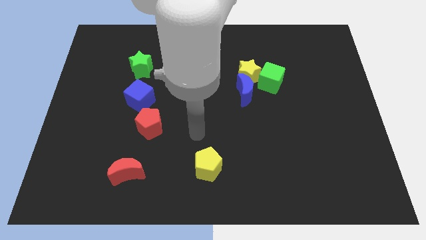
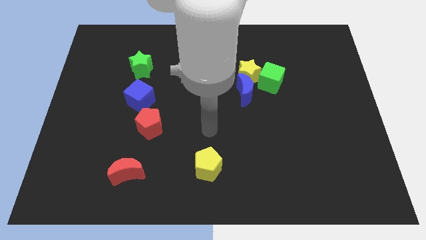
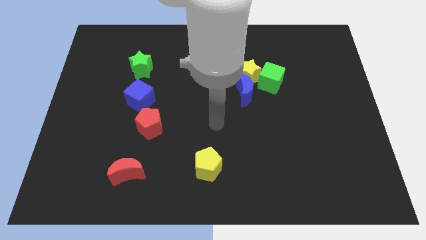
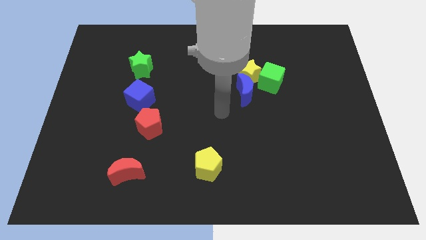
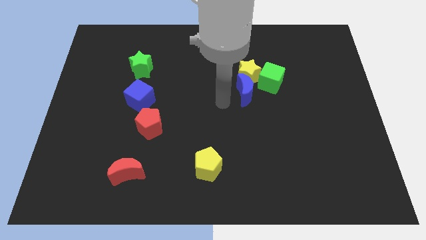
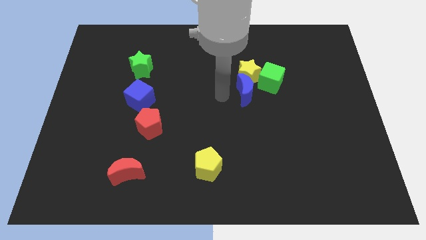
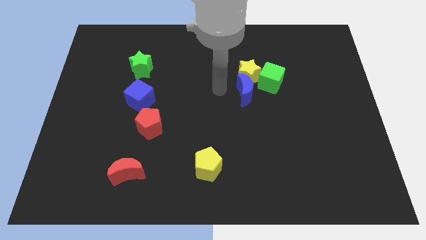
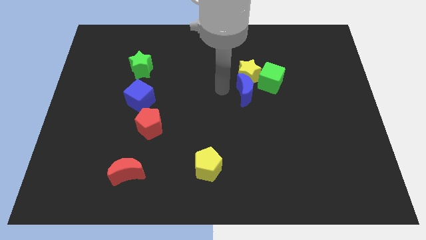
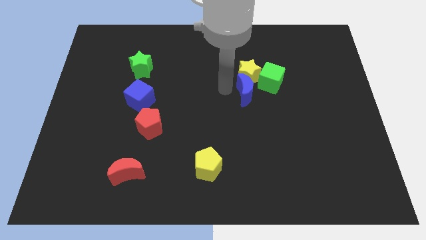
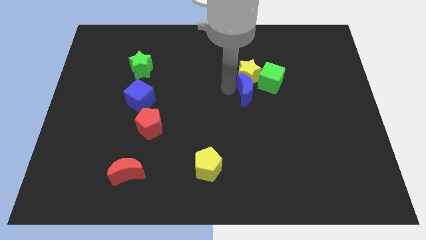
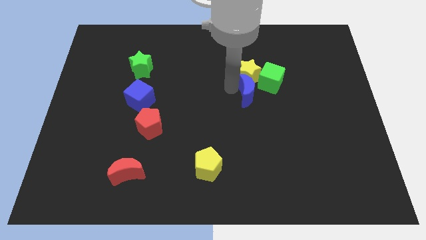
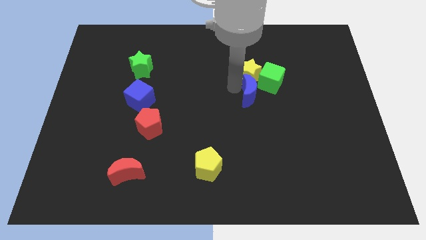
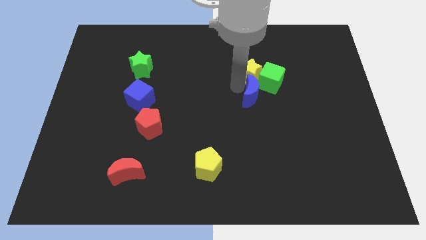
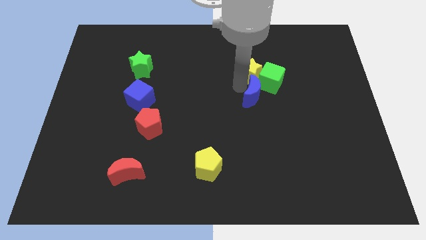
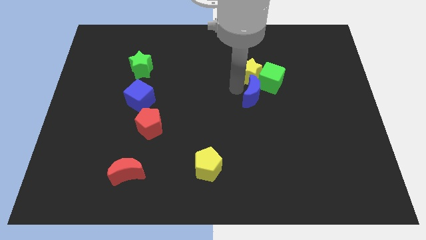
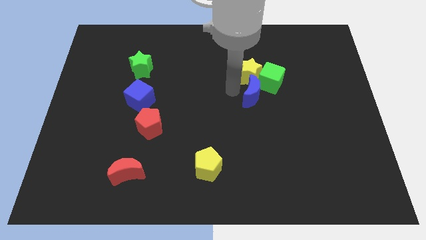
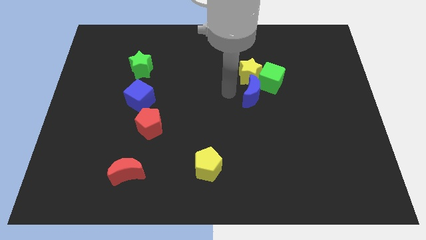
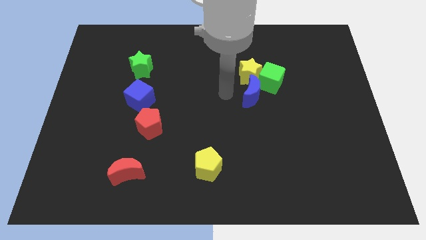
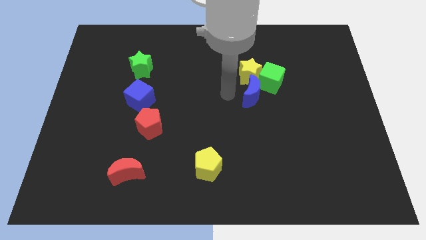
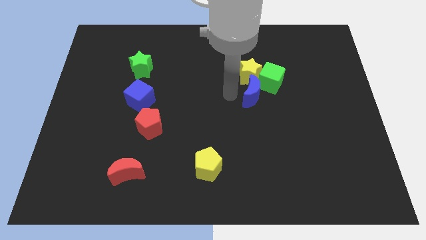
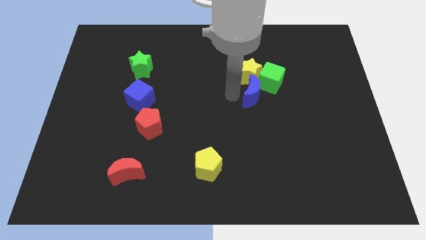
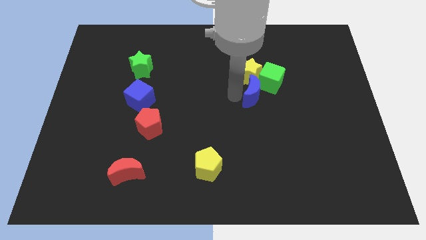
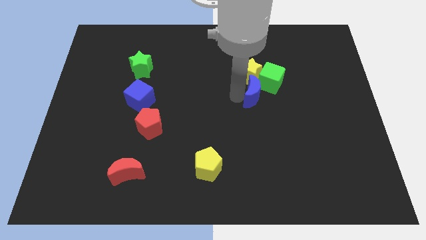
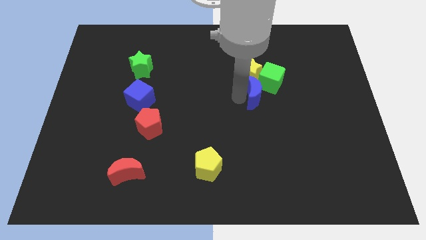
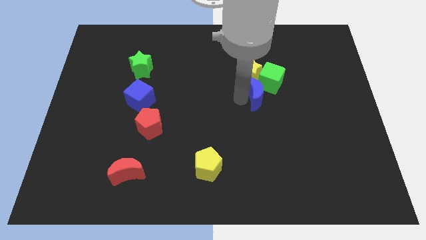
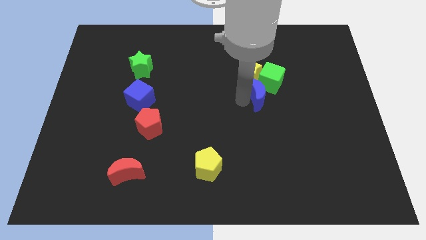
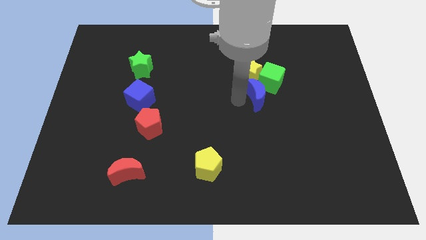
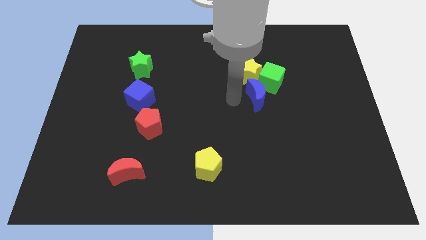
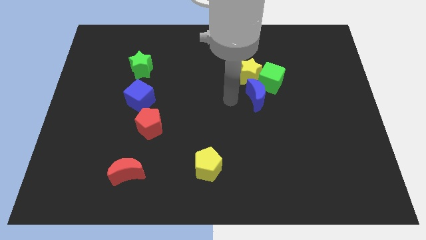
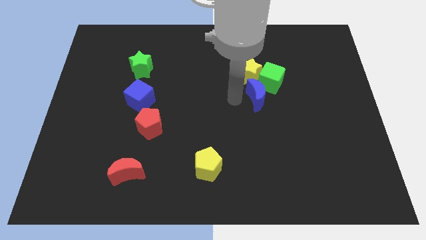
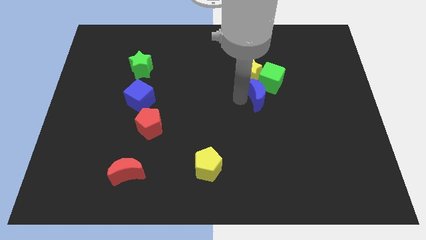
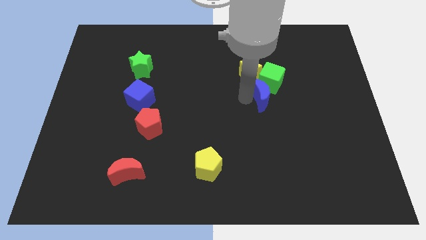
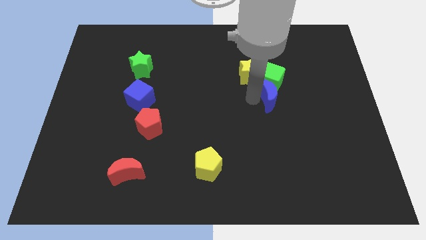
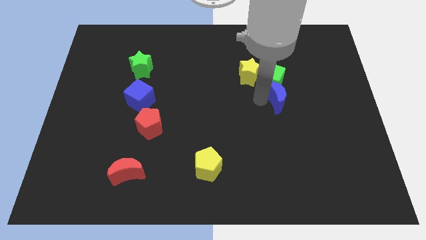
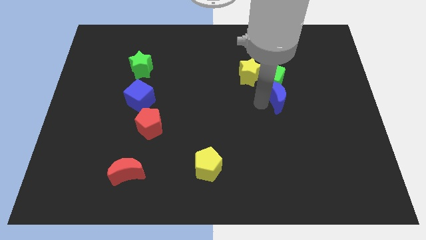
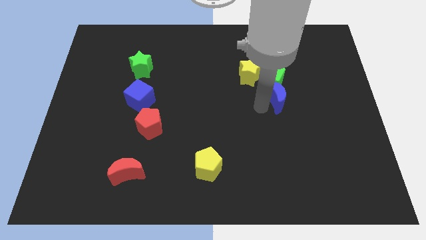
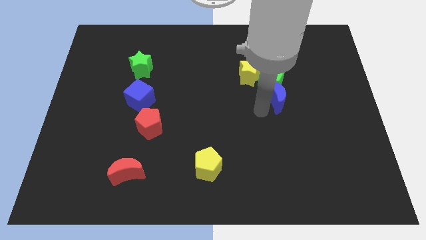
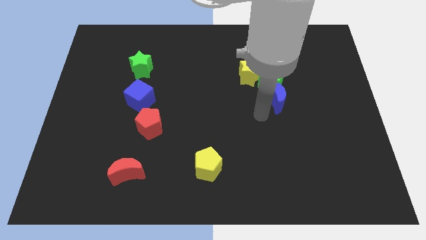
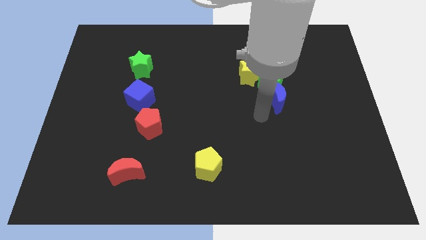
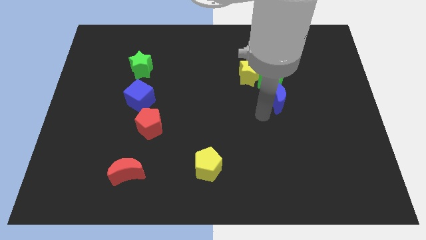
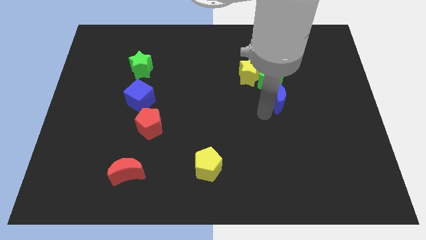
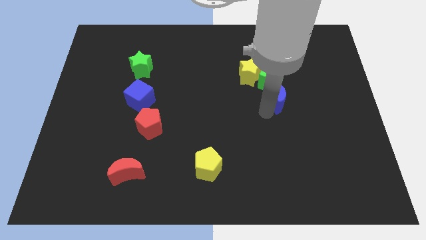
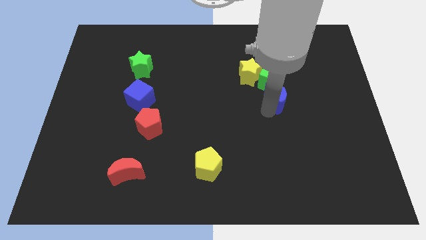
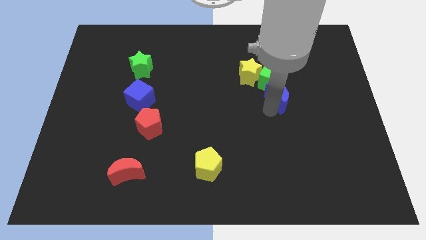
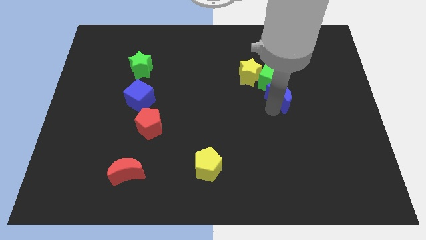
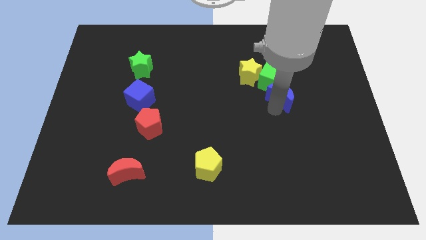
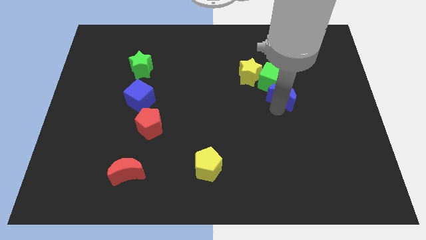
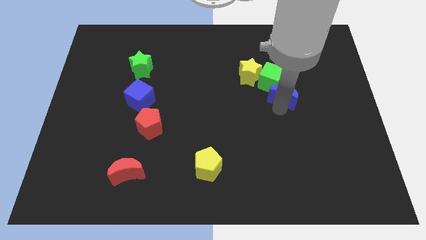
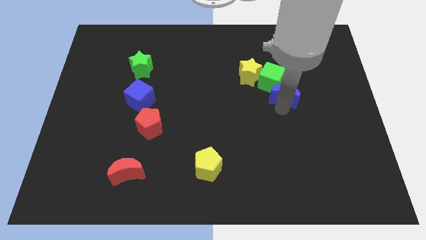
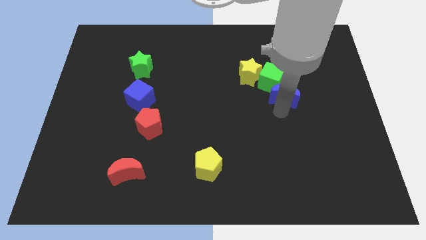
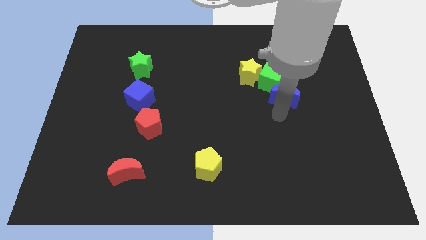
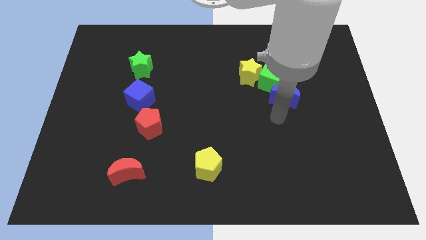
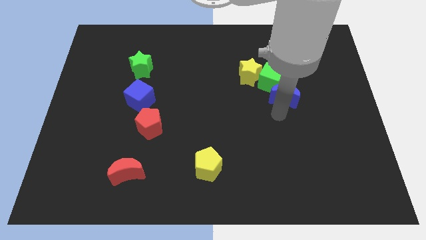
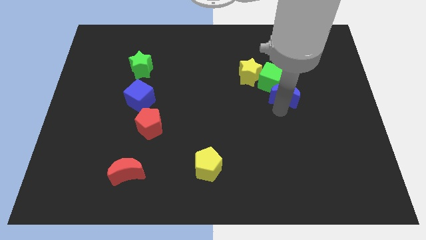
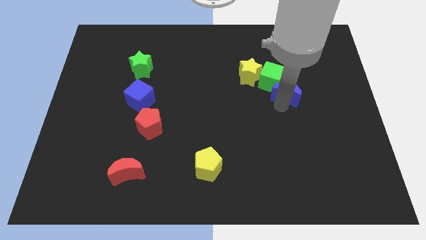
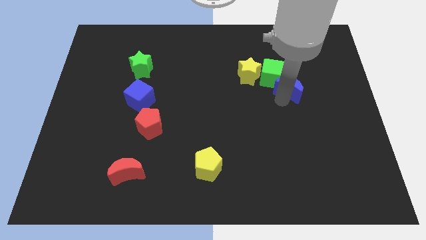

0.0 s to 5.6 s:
push the blue moon to the right side of the green cube

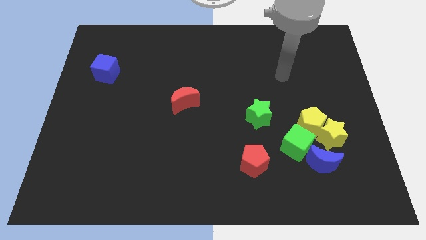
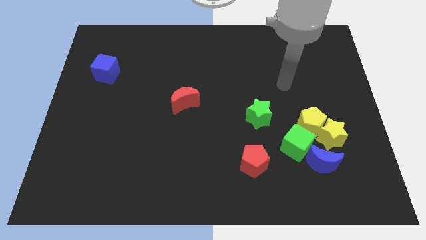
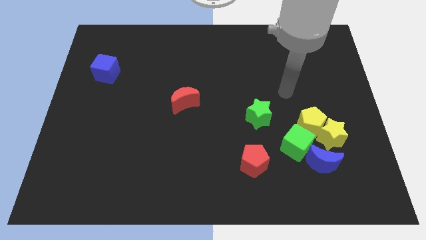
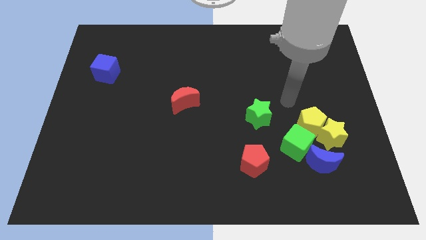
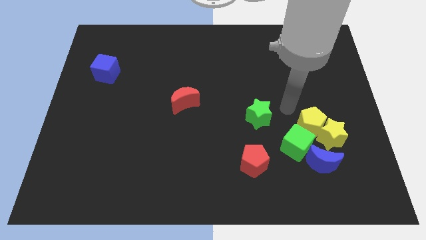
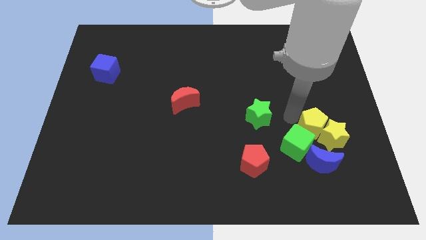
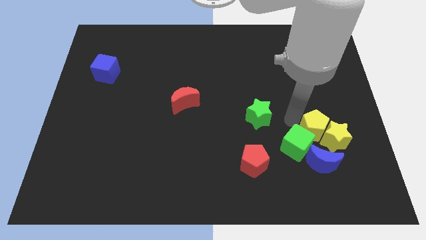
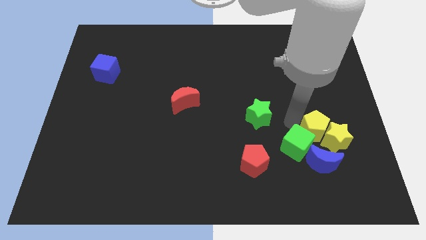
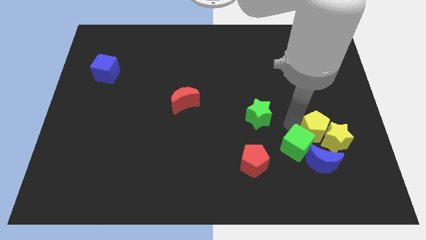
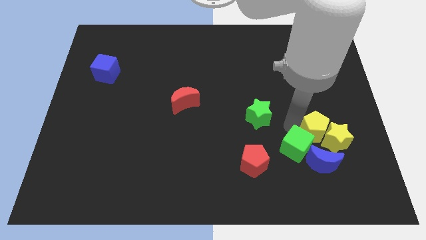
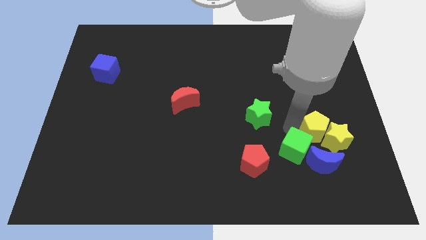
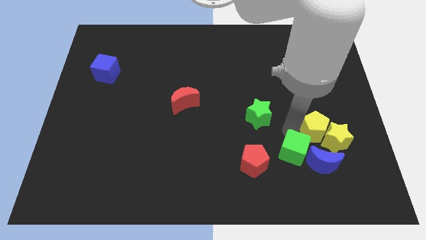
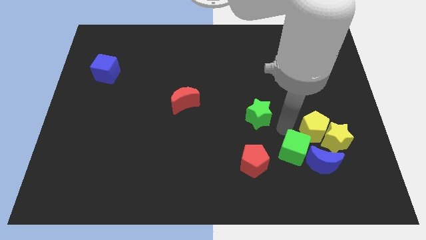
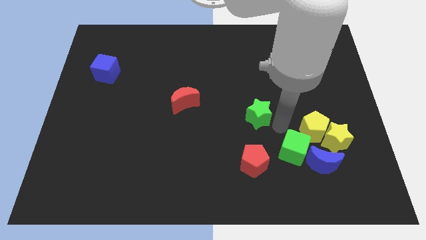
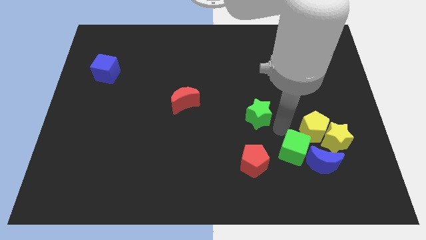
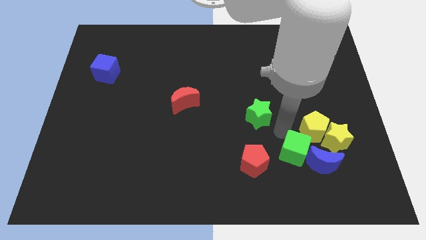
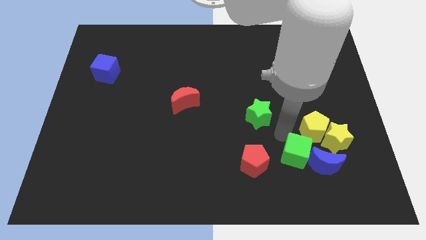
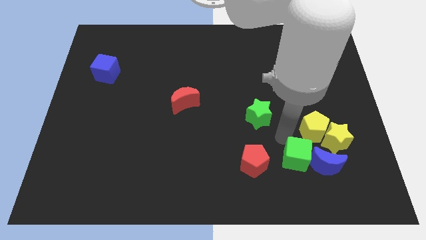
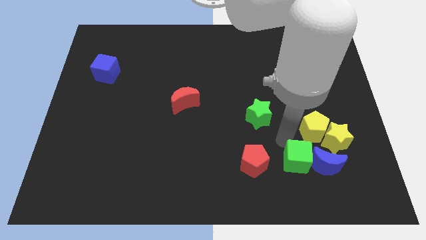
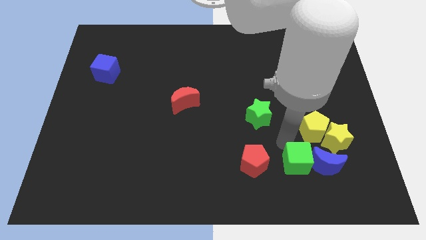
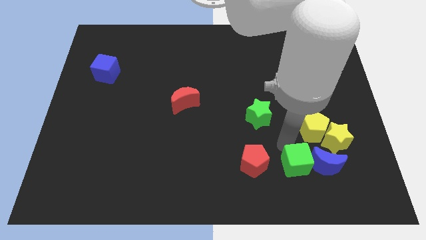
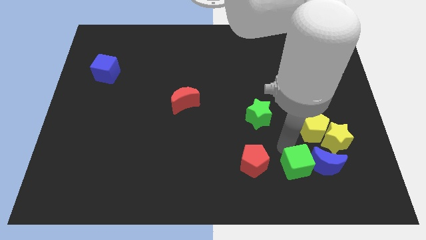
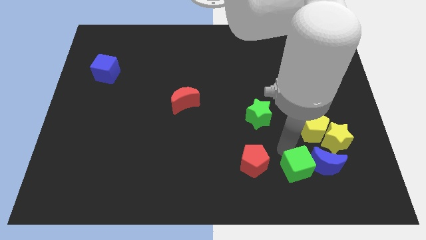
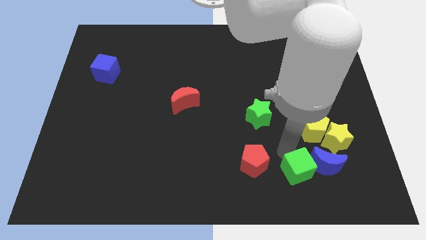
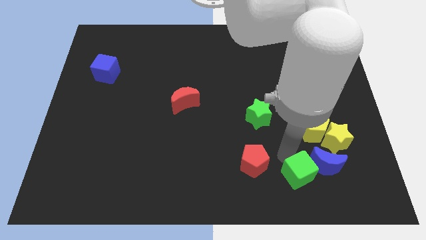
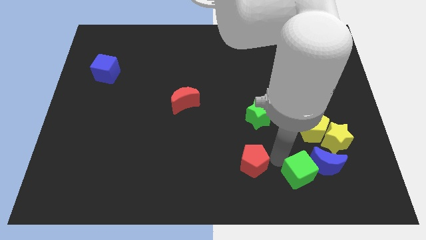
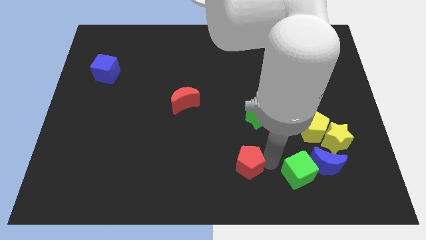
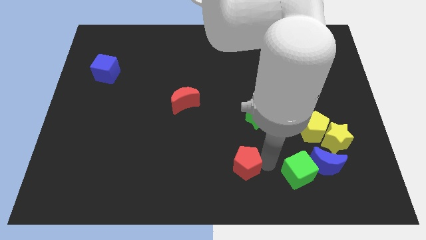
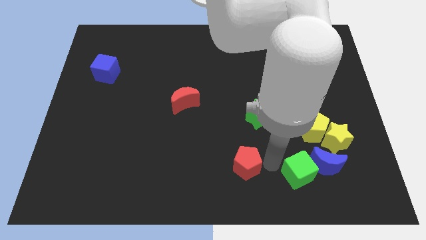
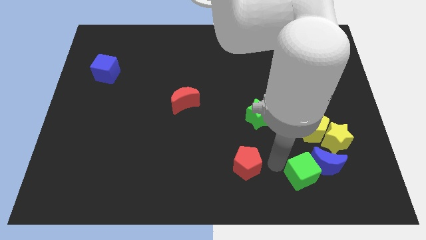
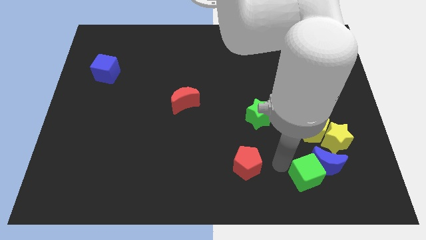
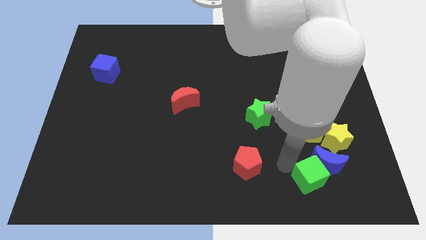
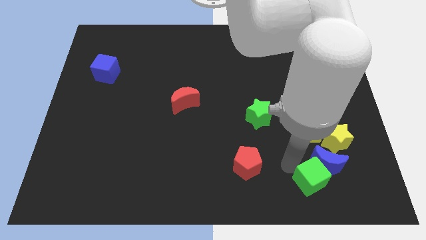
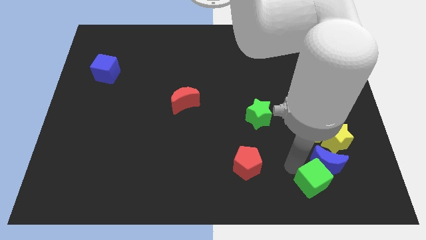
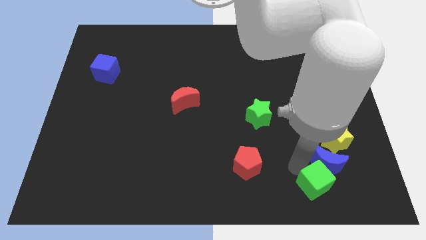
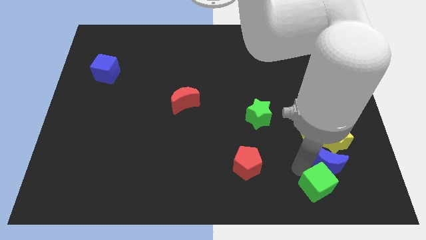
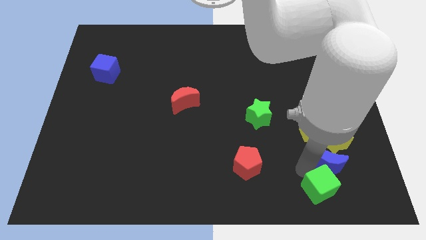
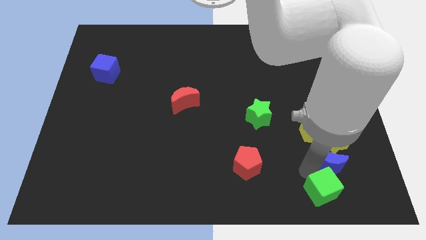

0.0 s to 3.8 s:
slide the green cube to the bottom of the yellow star
